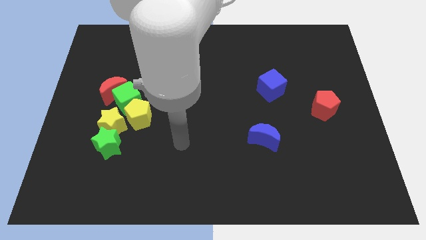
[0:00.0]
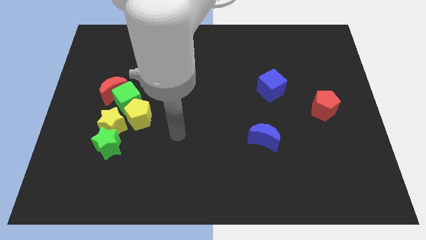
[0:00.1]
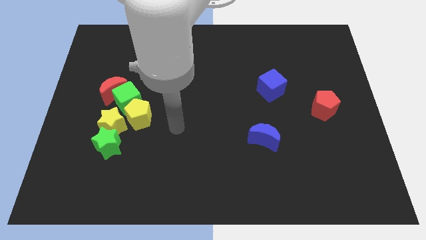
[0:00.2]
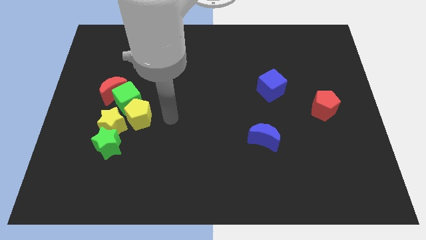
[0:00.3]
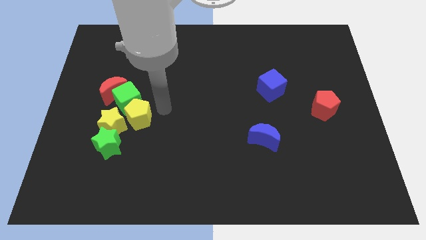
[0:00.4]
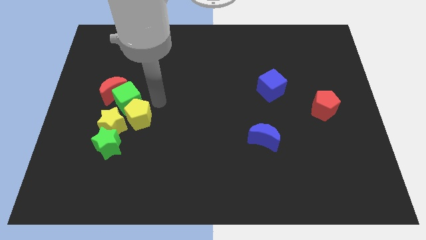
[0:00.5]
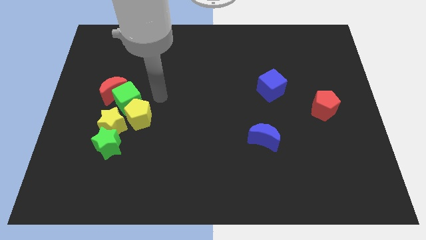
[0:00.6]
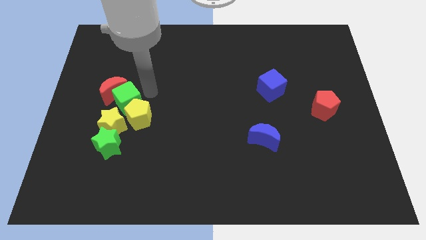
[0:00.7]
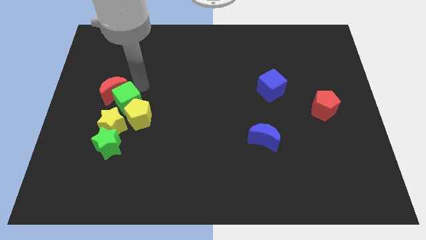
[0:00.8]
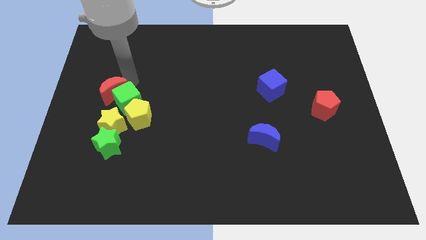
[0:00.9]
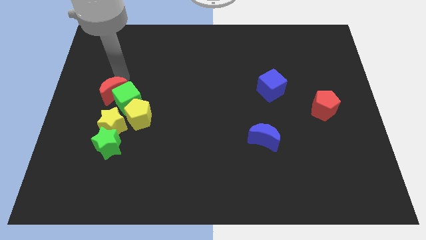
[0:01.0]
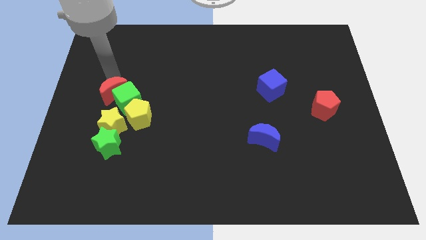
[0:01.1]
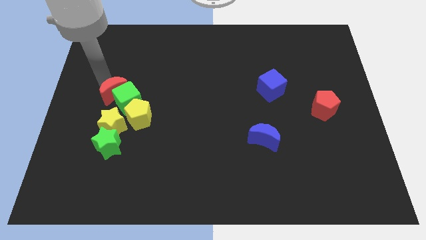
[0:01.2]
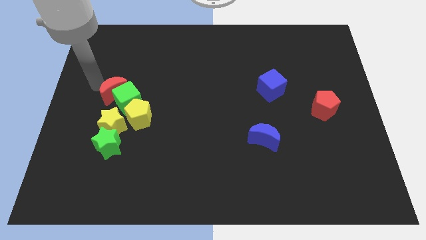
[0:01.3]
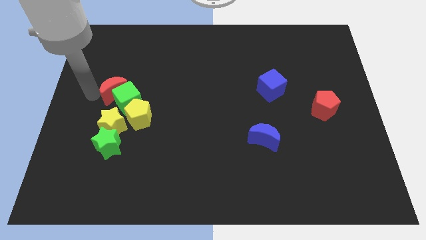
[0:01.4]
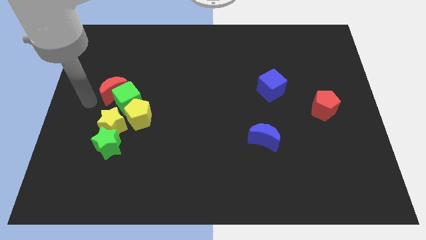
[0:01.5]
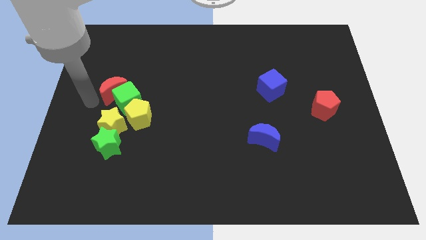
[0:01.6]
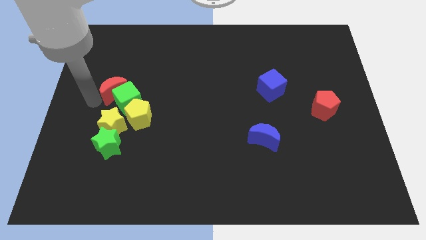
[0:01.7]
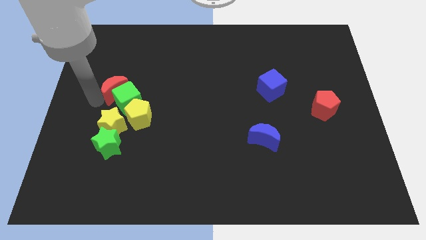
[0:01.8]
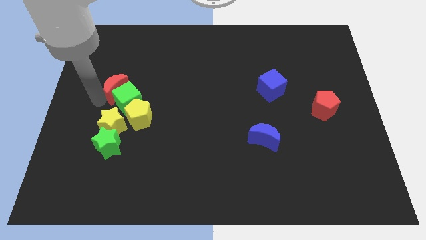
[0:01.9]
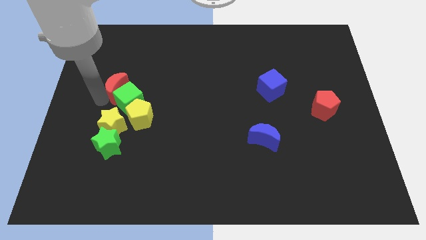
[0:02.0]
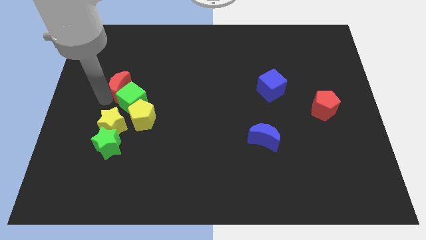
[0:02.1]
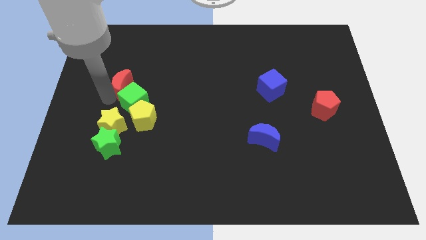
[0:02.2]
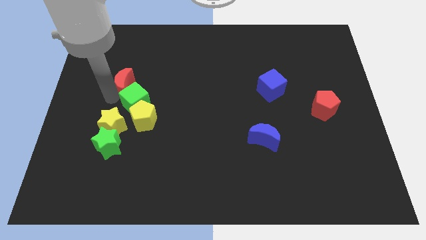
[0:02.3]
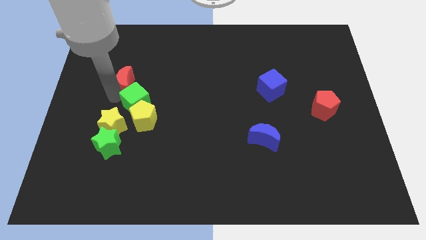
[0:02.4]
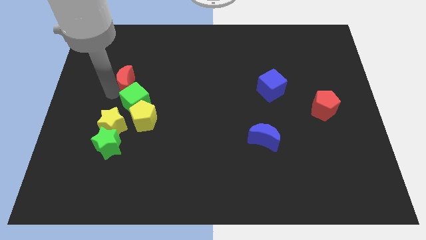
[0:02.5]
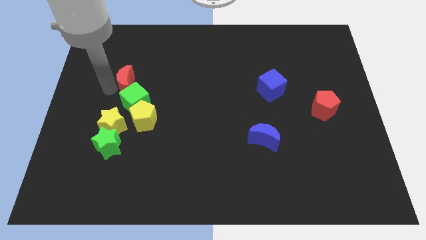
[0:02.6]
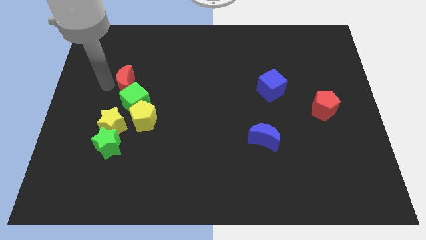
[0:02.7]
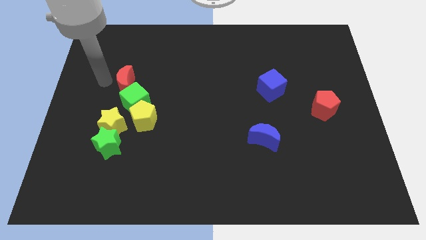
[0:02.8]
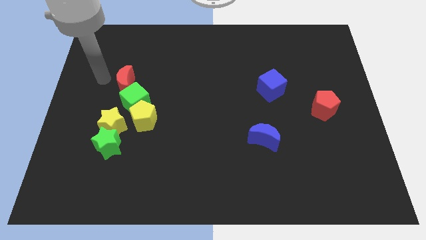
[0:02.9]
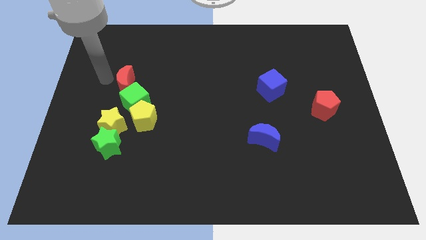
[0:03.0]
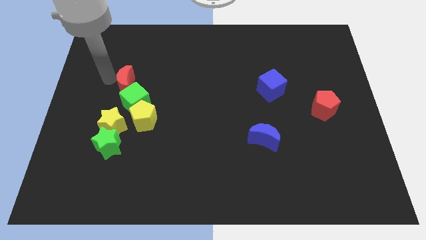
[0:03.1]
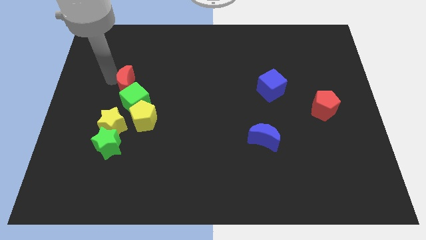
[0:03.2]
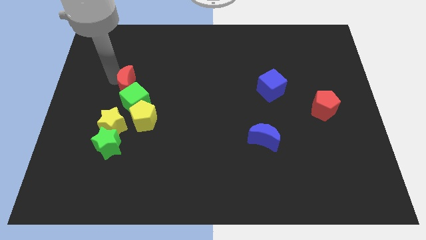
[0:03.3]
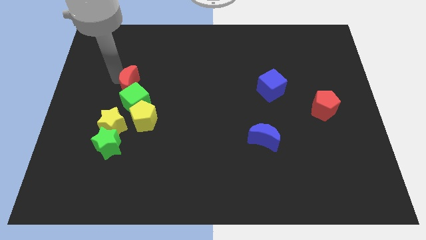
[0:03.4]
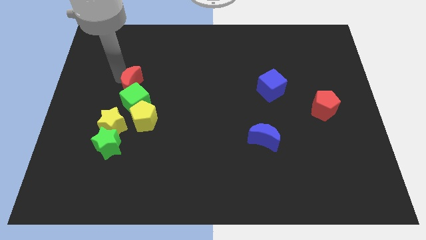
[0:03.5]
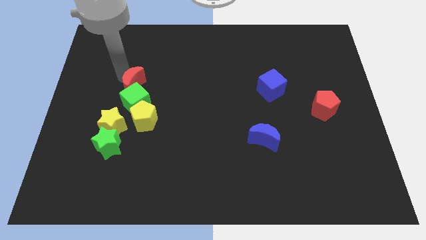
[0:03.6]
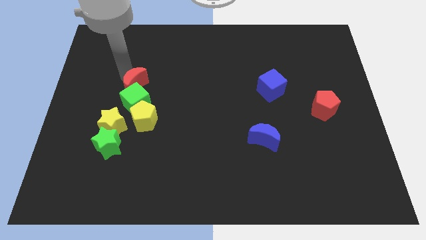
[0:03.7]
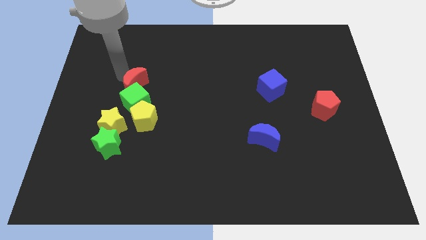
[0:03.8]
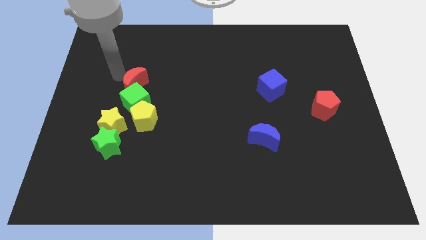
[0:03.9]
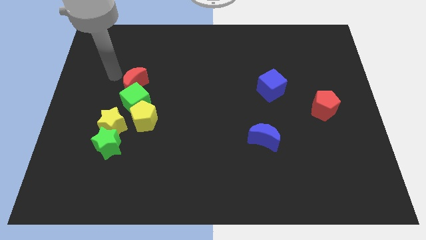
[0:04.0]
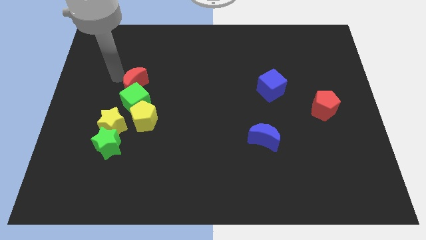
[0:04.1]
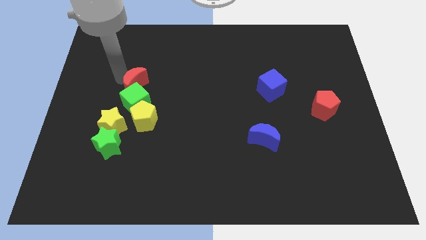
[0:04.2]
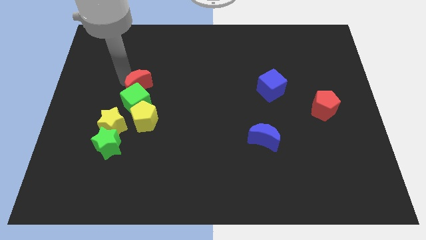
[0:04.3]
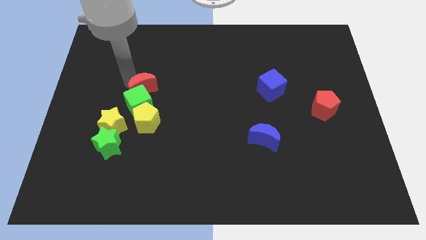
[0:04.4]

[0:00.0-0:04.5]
slide the red moon a little bit right

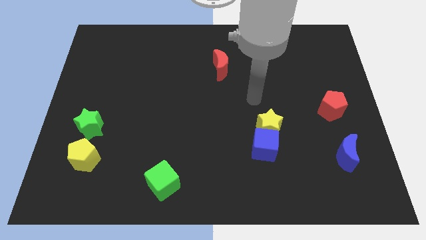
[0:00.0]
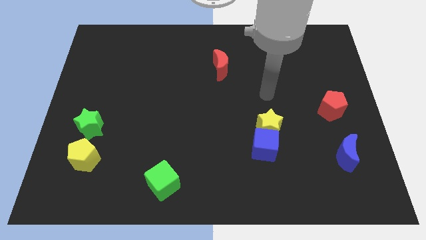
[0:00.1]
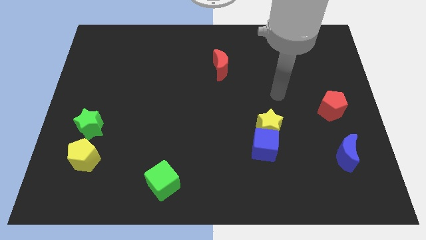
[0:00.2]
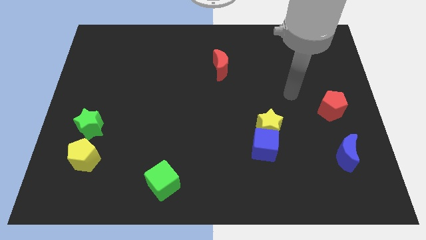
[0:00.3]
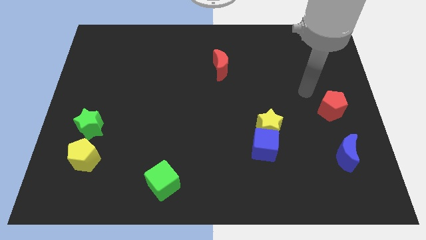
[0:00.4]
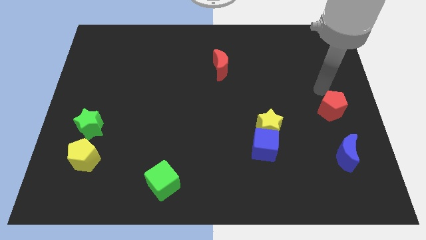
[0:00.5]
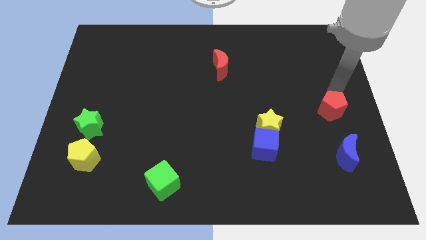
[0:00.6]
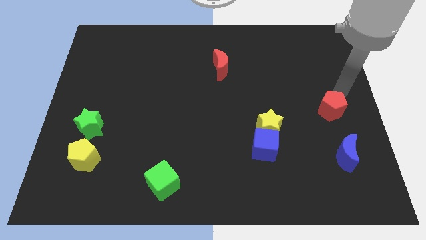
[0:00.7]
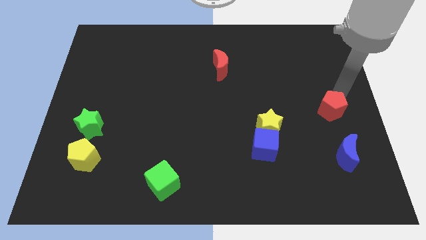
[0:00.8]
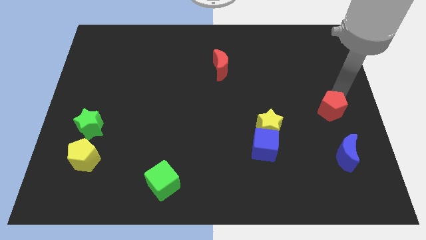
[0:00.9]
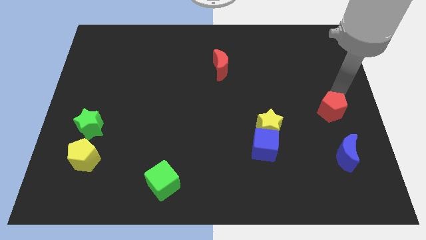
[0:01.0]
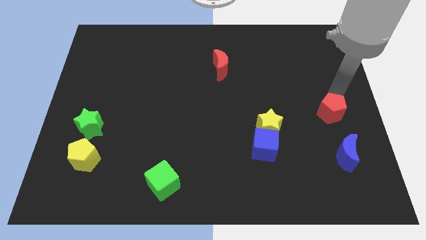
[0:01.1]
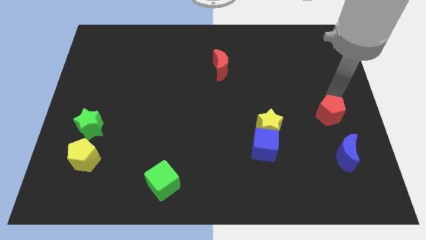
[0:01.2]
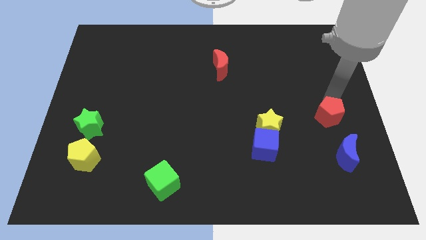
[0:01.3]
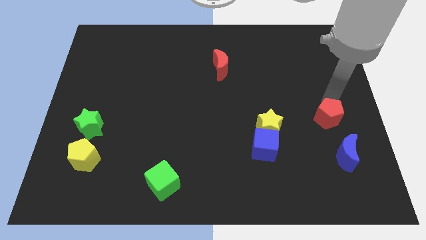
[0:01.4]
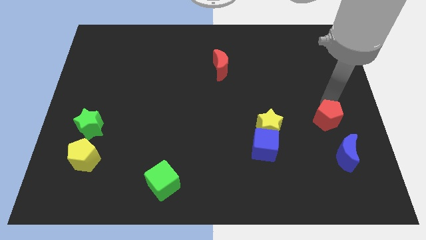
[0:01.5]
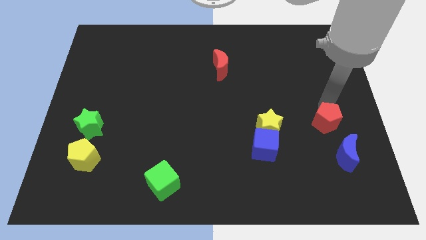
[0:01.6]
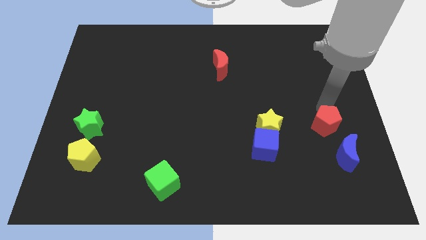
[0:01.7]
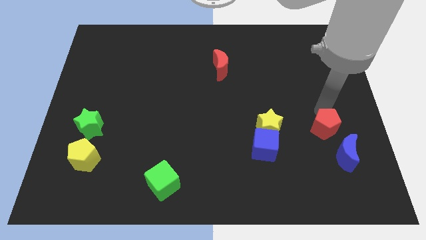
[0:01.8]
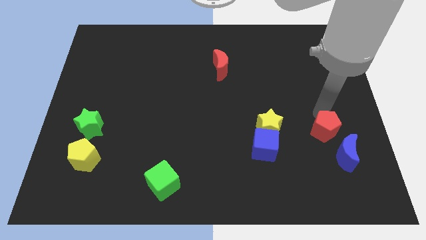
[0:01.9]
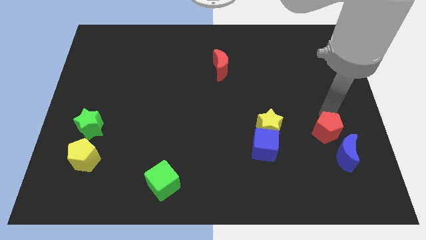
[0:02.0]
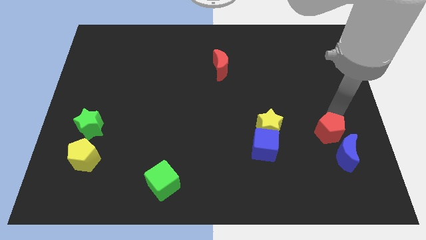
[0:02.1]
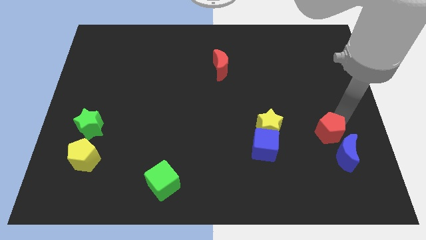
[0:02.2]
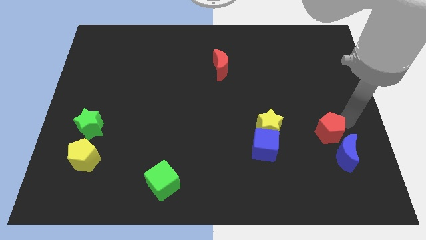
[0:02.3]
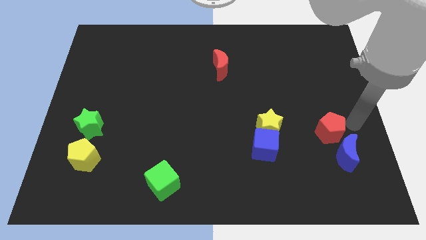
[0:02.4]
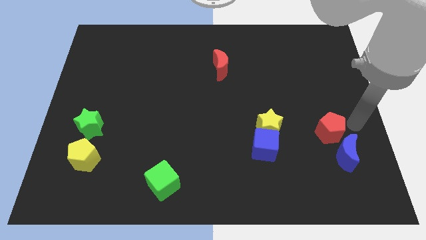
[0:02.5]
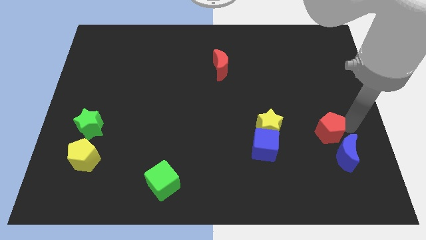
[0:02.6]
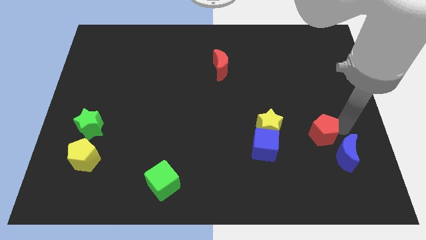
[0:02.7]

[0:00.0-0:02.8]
slightly slide the red pentagon diagonally downwards and to the left

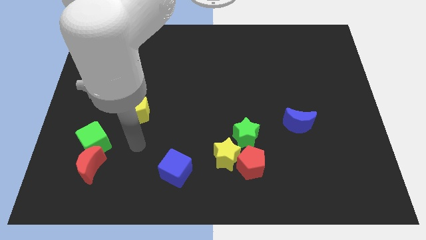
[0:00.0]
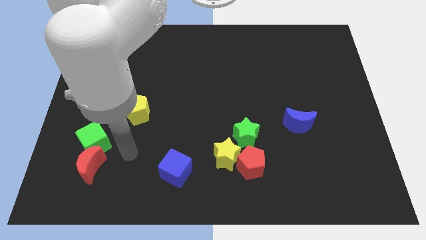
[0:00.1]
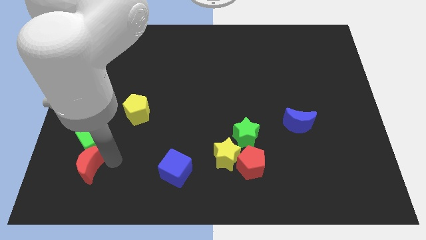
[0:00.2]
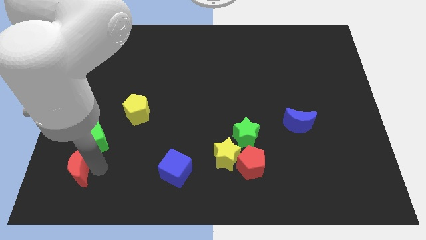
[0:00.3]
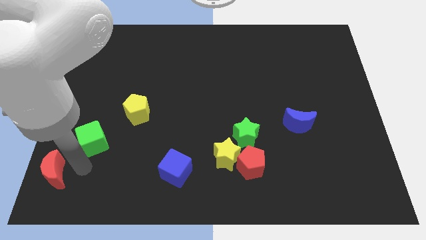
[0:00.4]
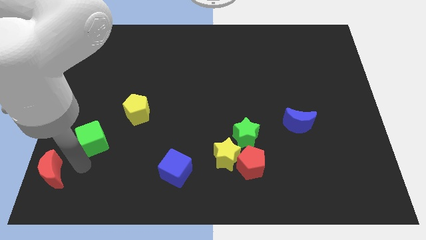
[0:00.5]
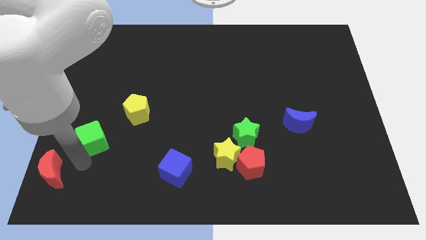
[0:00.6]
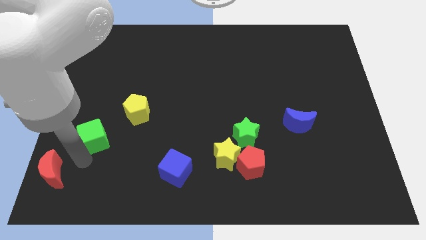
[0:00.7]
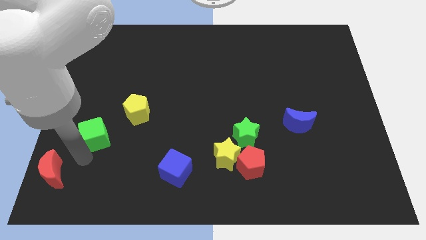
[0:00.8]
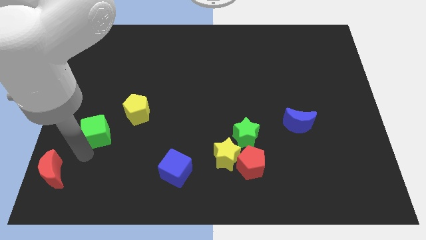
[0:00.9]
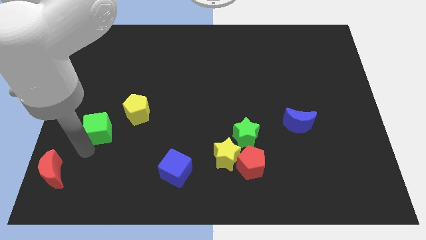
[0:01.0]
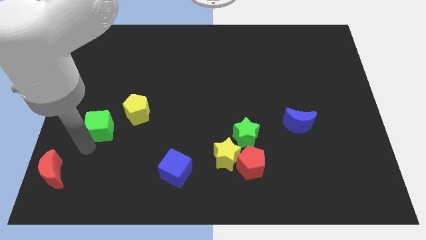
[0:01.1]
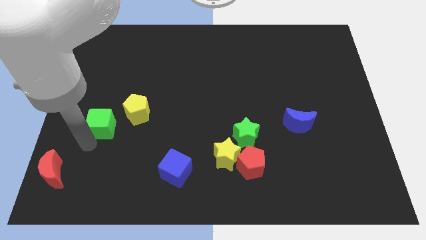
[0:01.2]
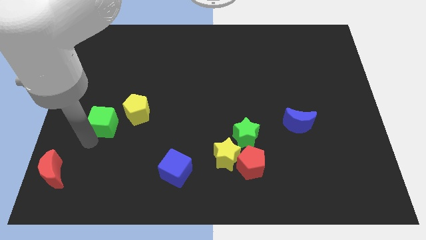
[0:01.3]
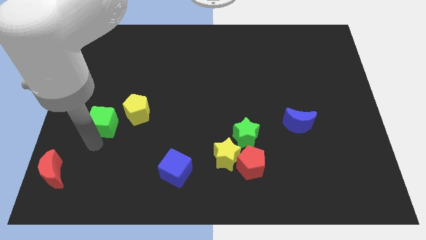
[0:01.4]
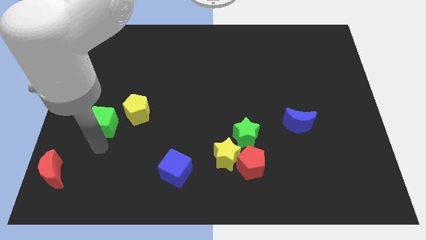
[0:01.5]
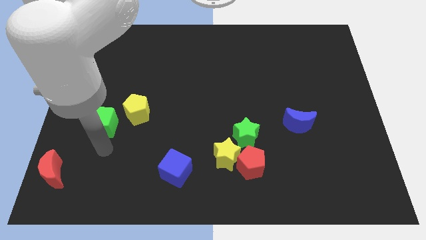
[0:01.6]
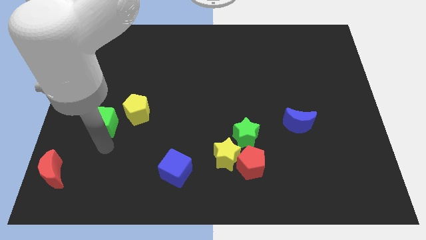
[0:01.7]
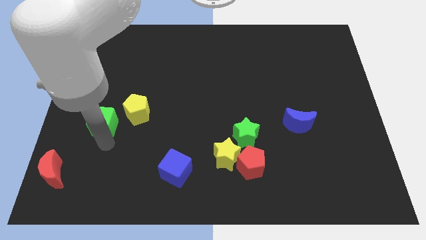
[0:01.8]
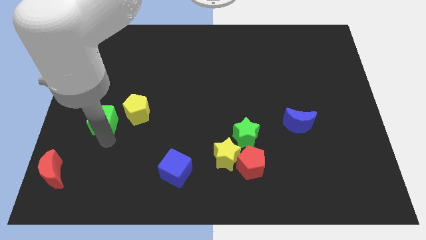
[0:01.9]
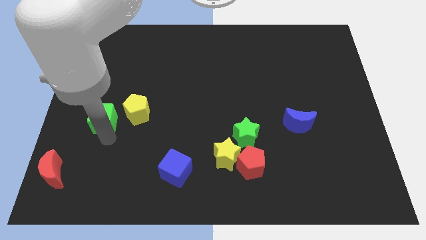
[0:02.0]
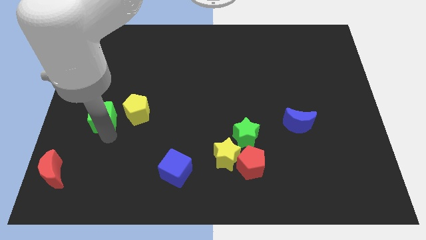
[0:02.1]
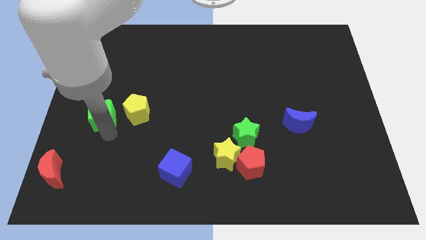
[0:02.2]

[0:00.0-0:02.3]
slide the green cube a little upwards
